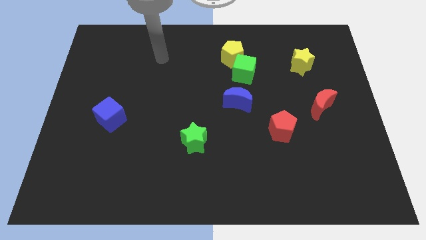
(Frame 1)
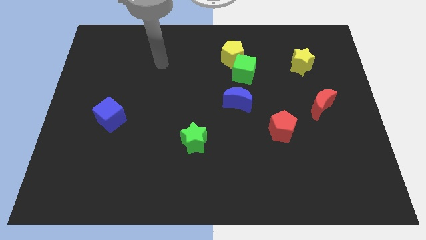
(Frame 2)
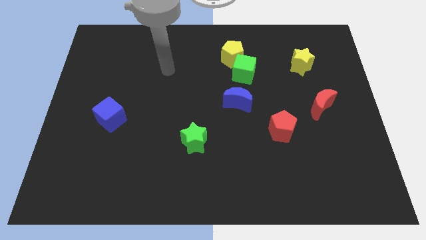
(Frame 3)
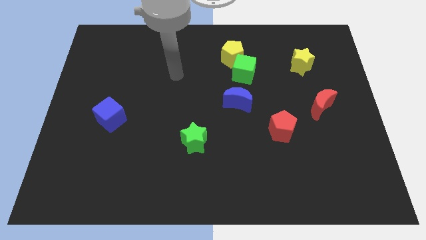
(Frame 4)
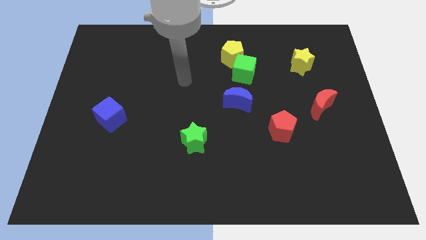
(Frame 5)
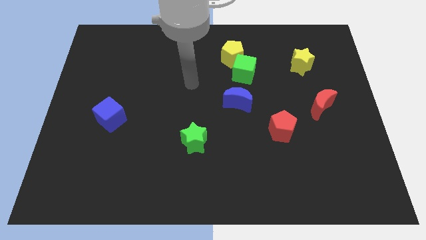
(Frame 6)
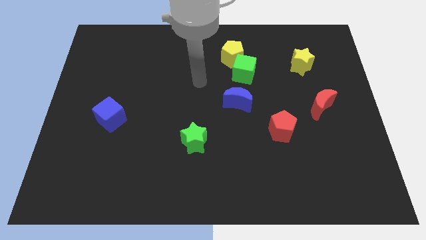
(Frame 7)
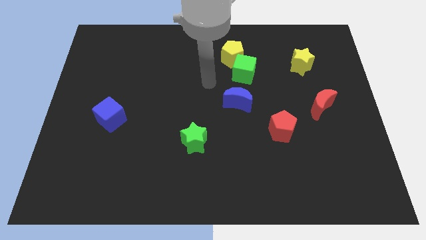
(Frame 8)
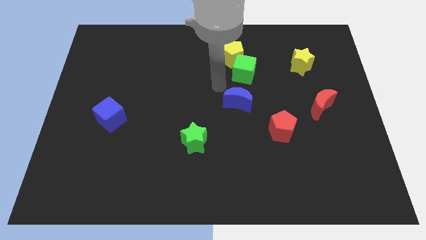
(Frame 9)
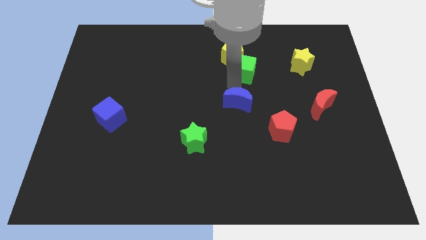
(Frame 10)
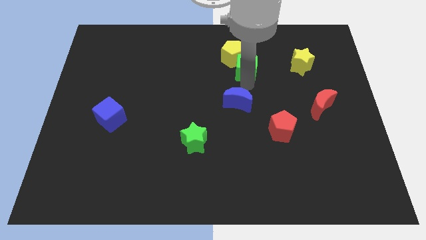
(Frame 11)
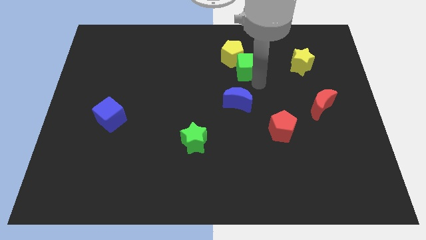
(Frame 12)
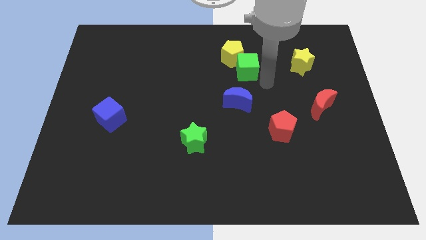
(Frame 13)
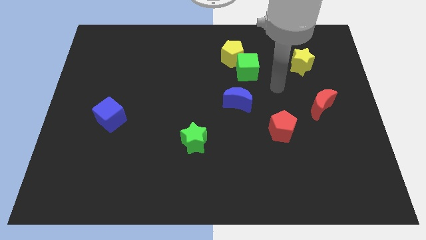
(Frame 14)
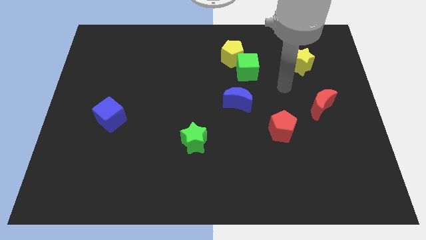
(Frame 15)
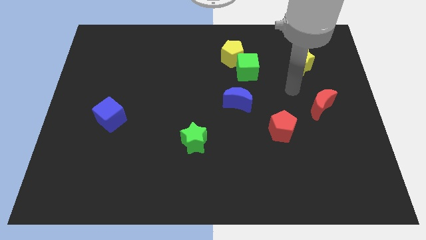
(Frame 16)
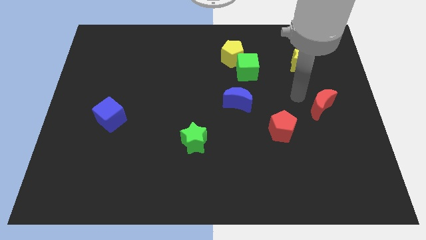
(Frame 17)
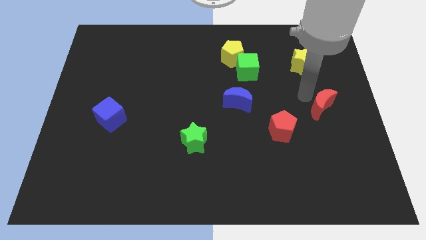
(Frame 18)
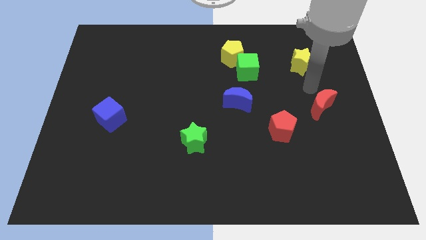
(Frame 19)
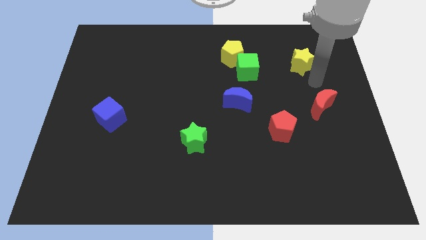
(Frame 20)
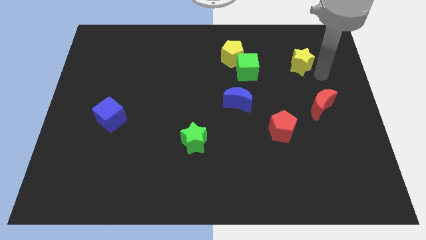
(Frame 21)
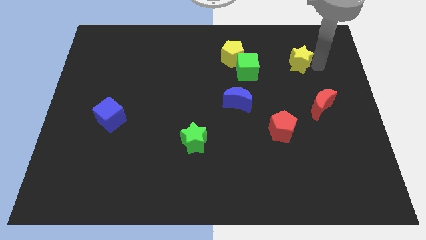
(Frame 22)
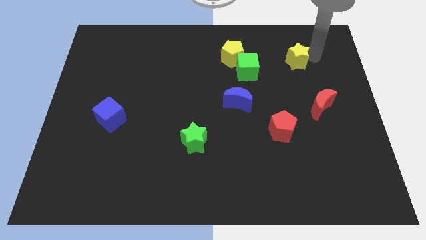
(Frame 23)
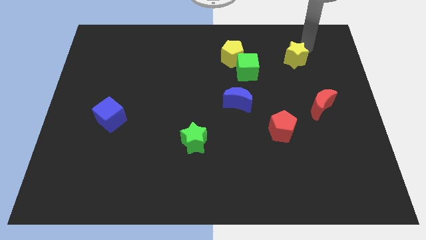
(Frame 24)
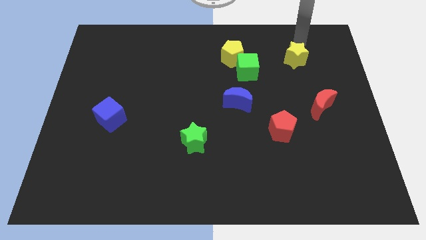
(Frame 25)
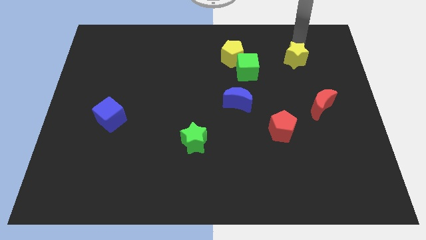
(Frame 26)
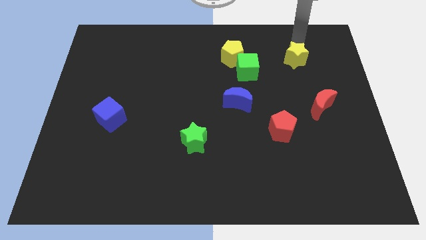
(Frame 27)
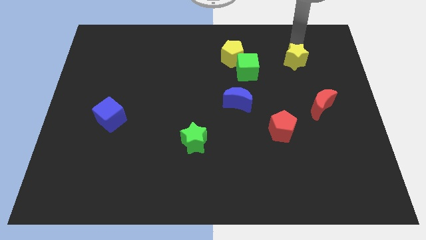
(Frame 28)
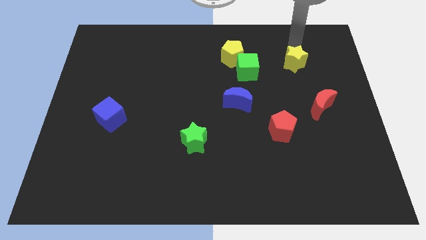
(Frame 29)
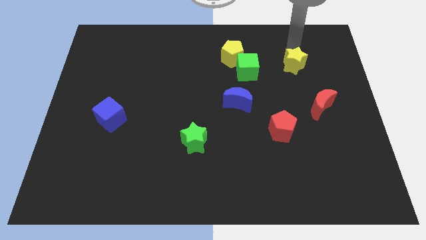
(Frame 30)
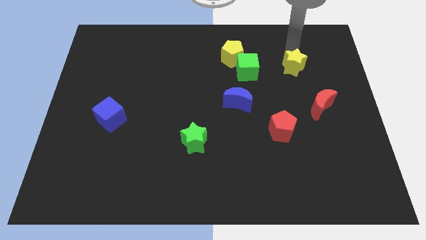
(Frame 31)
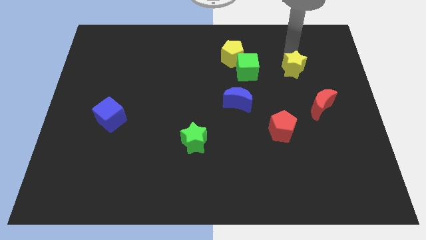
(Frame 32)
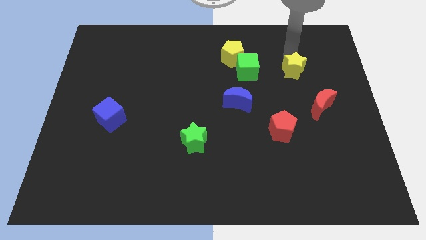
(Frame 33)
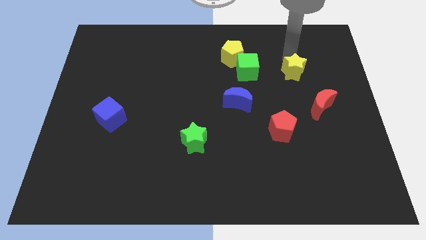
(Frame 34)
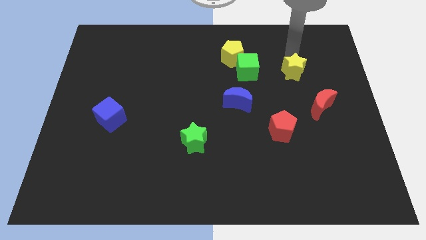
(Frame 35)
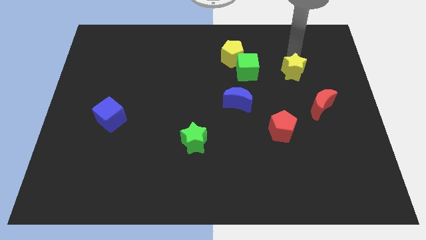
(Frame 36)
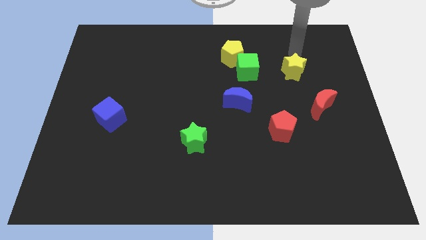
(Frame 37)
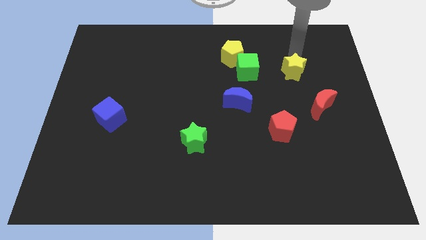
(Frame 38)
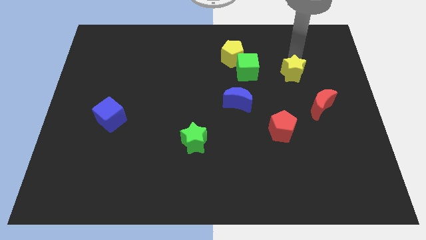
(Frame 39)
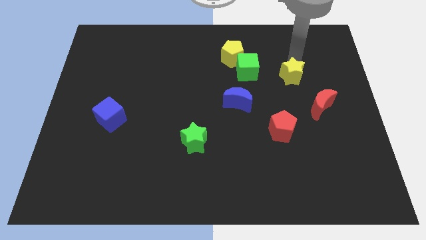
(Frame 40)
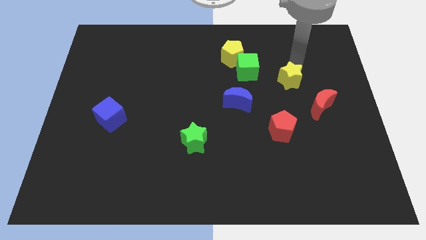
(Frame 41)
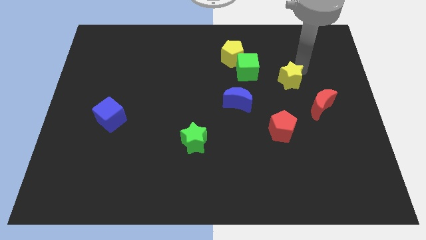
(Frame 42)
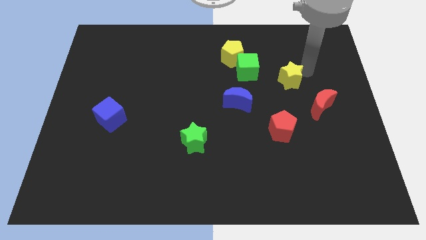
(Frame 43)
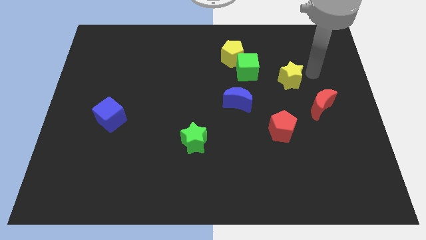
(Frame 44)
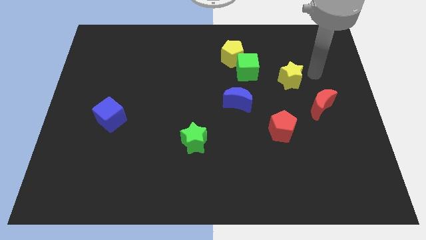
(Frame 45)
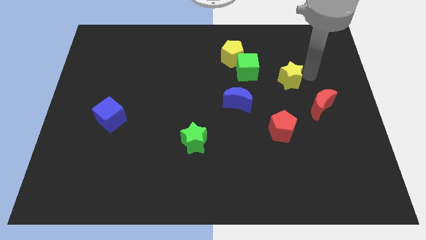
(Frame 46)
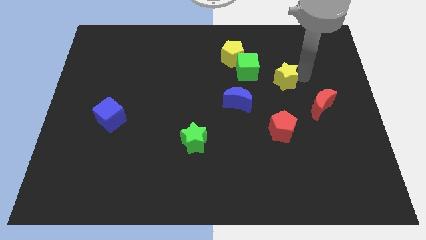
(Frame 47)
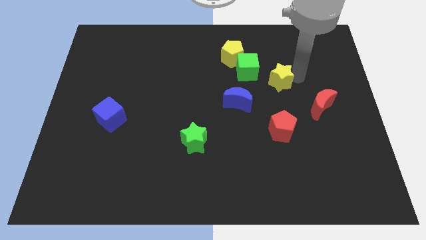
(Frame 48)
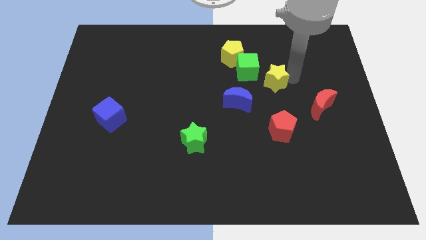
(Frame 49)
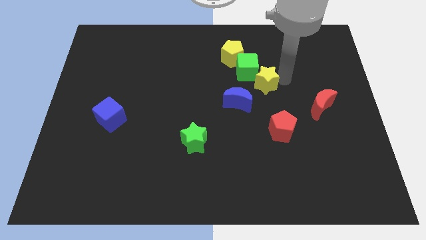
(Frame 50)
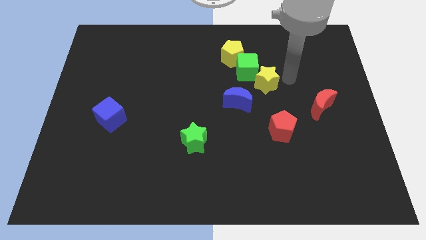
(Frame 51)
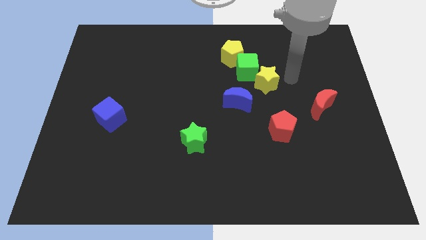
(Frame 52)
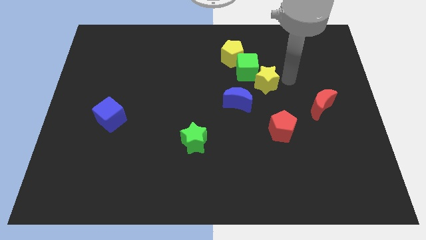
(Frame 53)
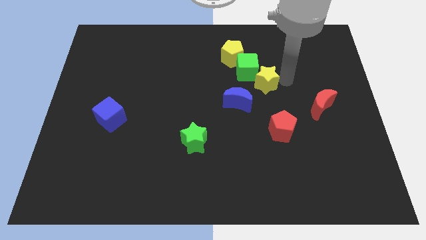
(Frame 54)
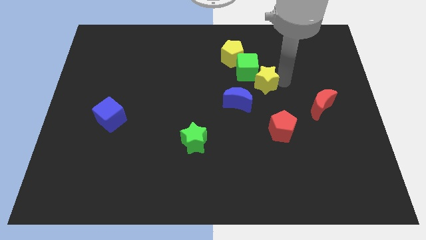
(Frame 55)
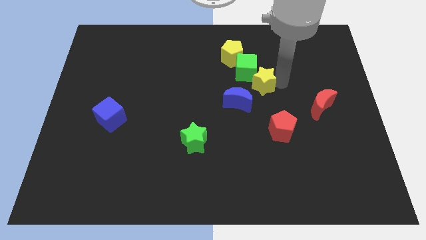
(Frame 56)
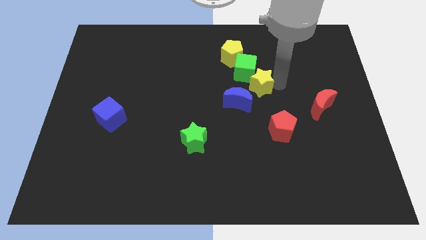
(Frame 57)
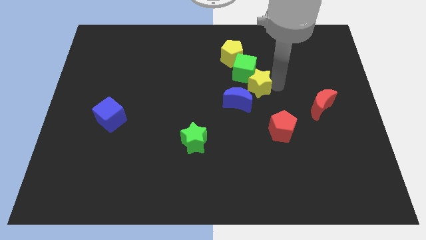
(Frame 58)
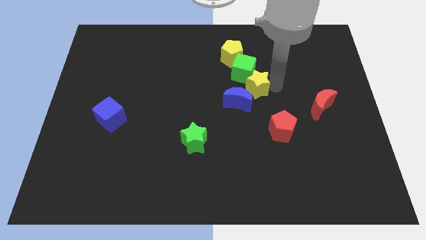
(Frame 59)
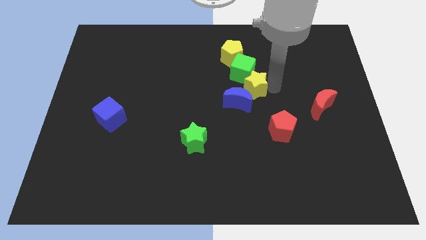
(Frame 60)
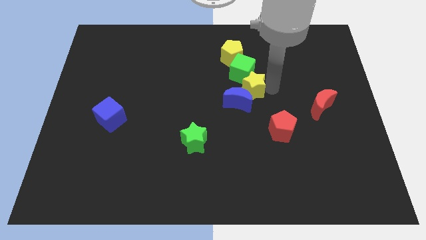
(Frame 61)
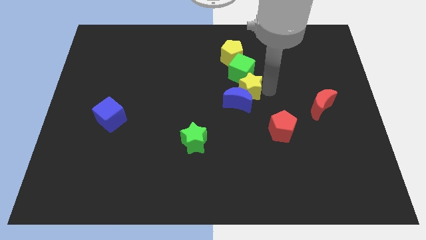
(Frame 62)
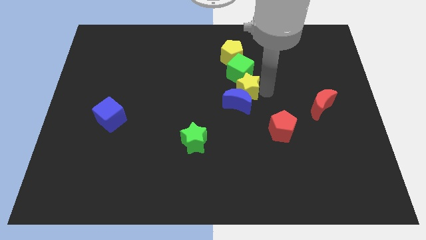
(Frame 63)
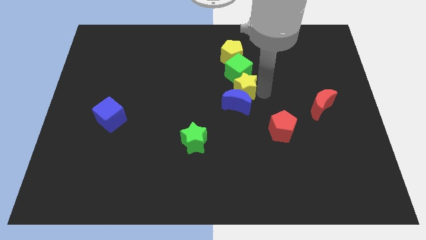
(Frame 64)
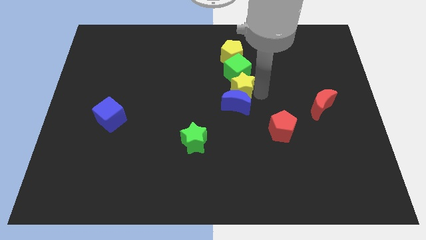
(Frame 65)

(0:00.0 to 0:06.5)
move the yellow star to the bottom left side of the green cube
